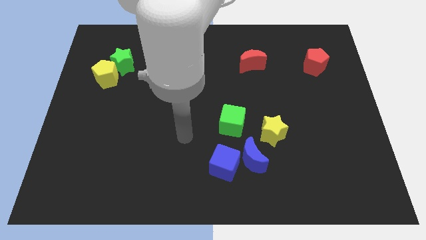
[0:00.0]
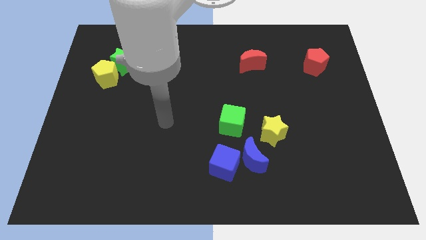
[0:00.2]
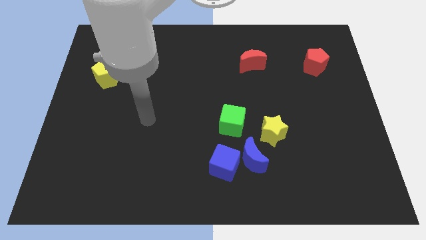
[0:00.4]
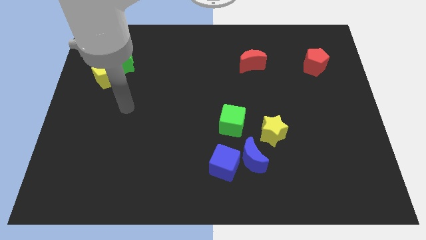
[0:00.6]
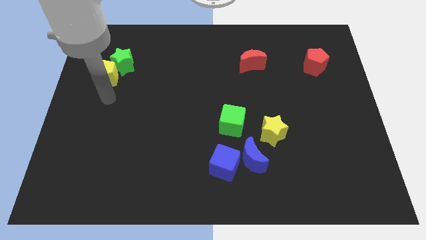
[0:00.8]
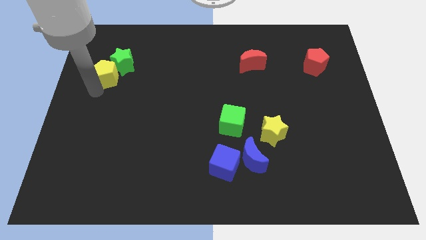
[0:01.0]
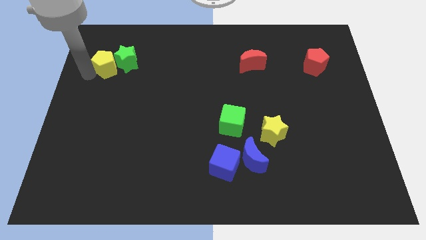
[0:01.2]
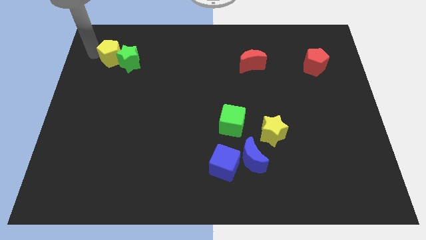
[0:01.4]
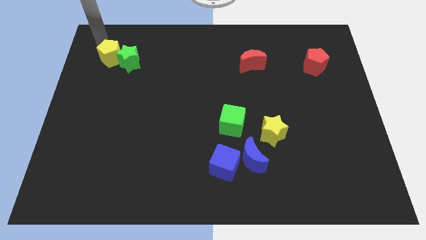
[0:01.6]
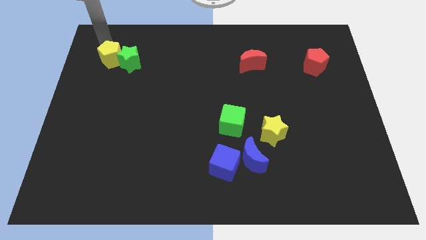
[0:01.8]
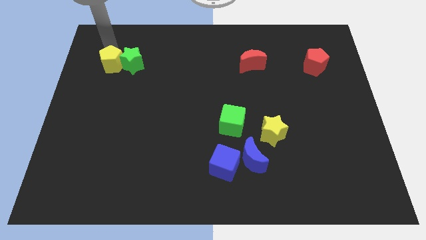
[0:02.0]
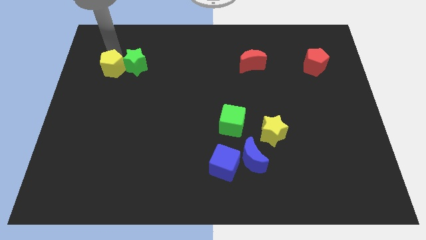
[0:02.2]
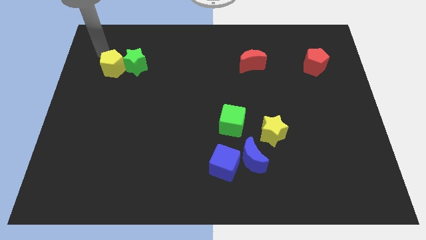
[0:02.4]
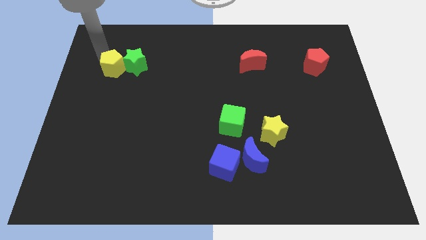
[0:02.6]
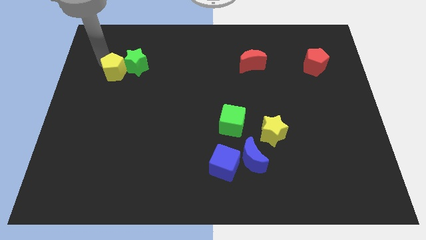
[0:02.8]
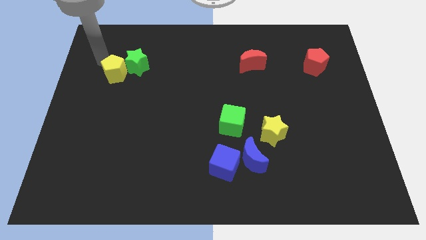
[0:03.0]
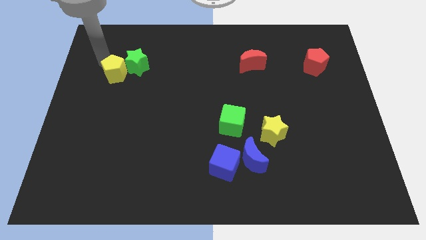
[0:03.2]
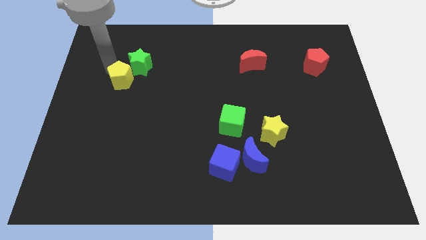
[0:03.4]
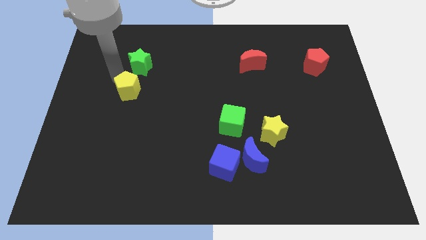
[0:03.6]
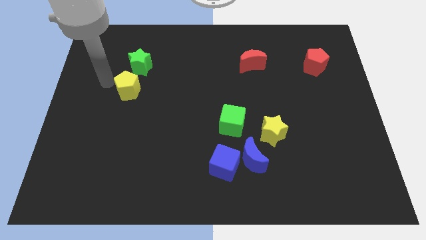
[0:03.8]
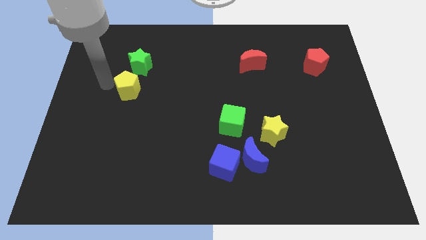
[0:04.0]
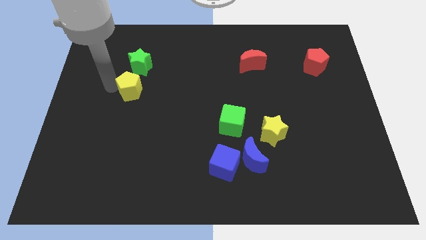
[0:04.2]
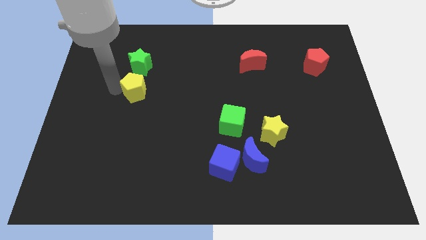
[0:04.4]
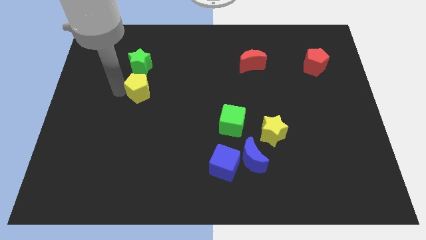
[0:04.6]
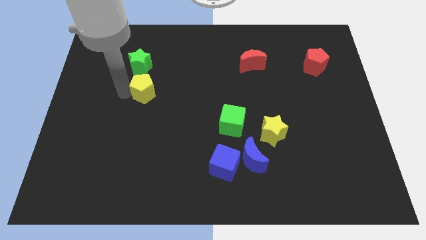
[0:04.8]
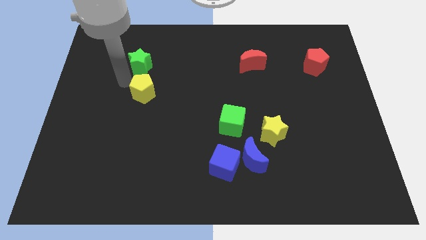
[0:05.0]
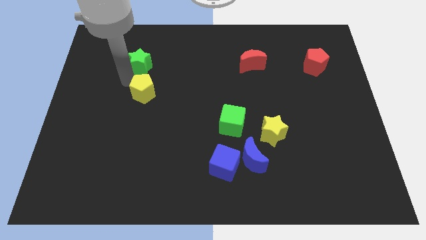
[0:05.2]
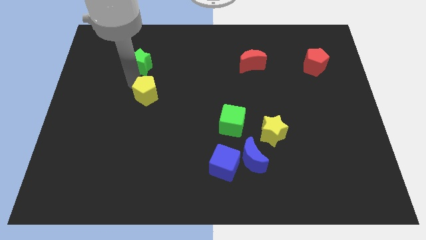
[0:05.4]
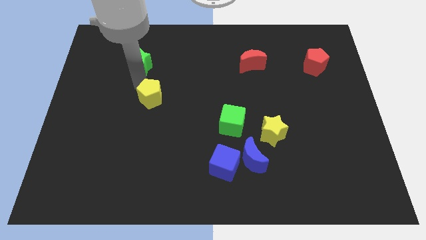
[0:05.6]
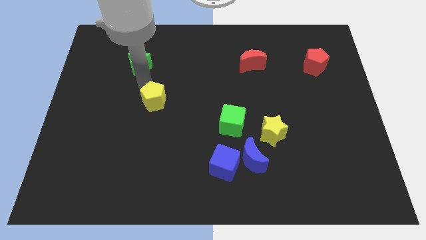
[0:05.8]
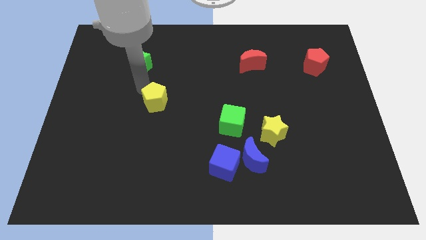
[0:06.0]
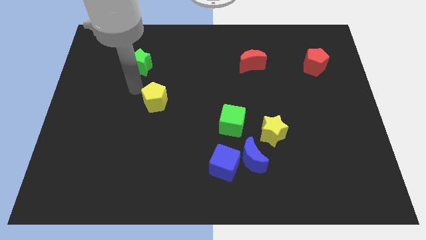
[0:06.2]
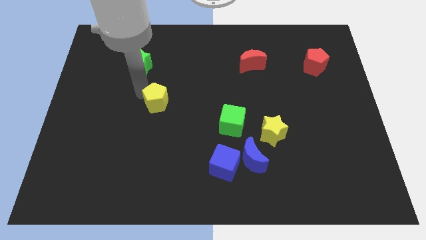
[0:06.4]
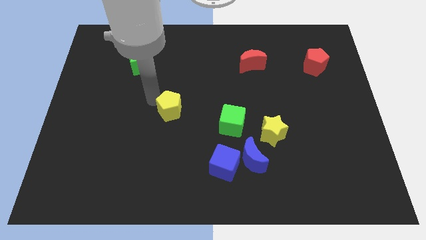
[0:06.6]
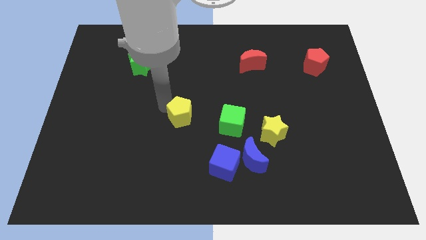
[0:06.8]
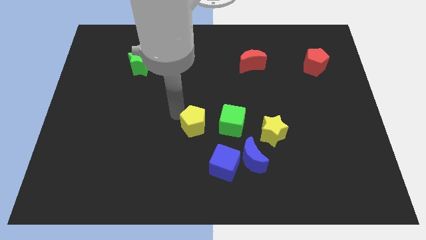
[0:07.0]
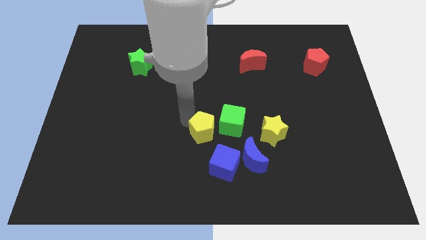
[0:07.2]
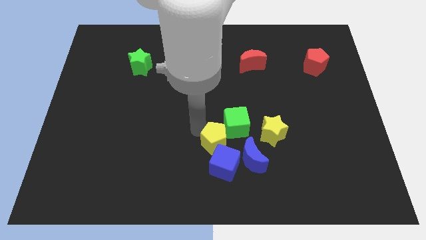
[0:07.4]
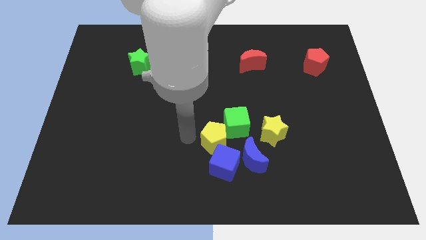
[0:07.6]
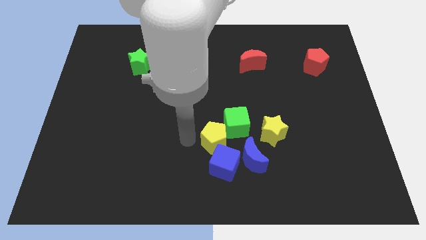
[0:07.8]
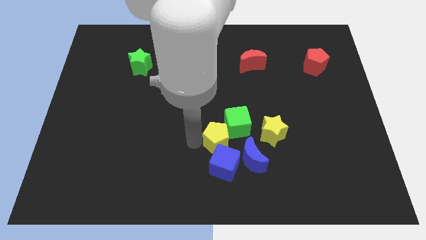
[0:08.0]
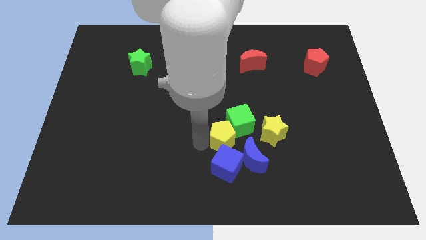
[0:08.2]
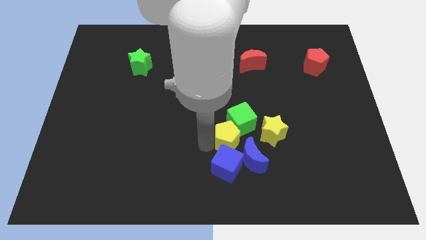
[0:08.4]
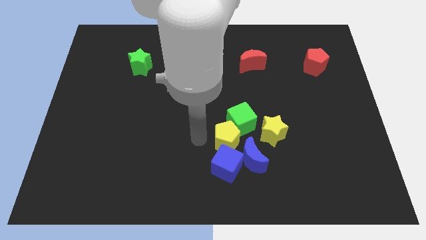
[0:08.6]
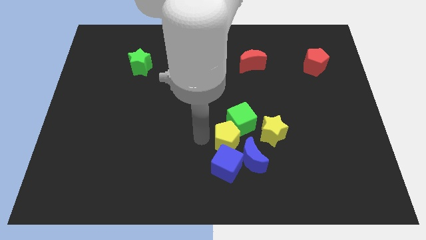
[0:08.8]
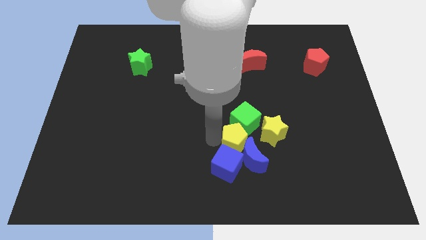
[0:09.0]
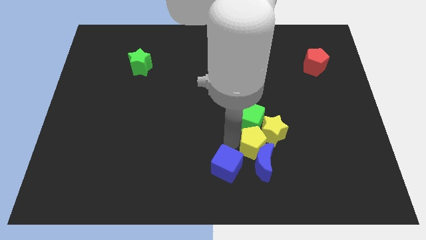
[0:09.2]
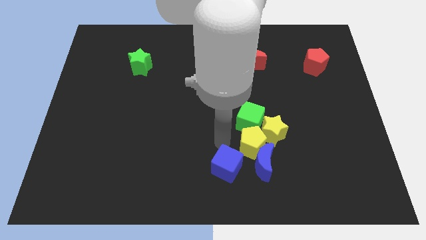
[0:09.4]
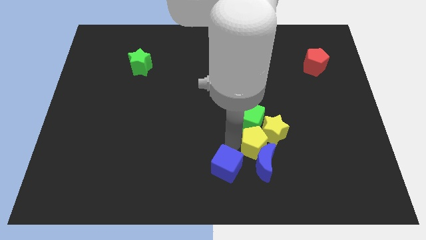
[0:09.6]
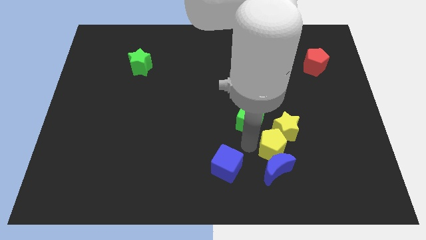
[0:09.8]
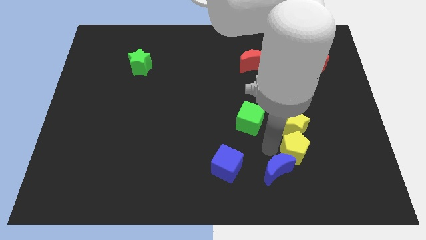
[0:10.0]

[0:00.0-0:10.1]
slide the yellow pentagon to the bottom right of the yellow star

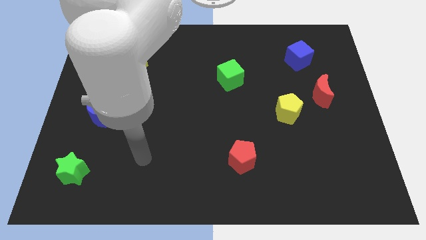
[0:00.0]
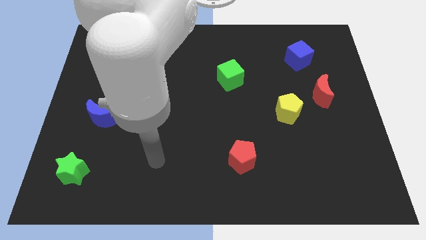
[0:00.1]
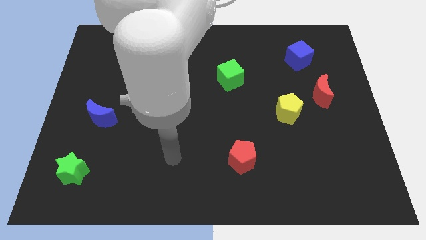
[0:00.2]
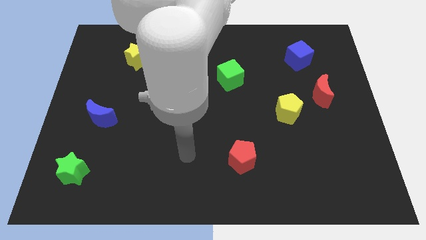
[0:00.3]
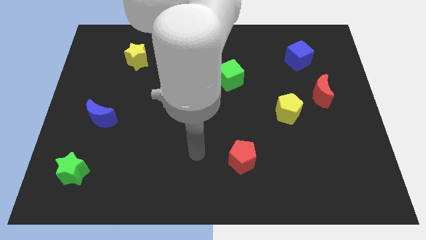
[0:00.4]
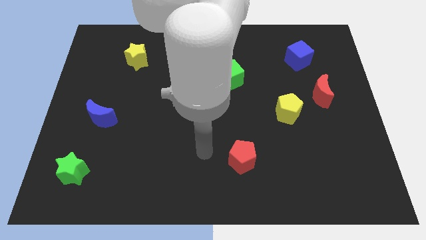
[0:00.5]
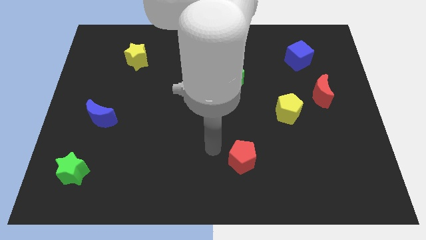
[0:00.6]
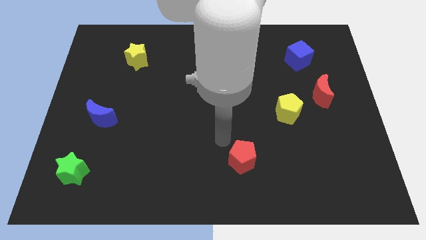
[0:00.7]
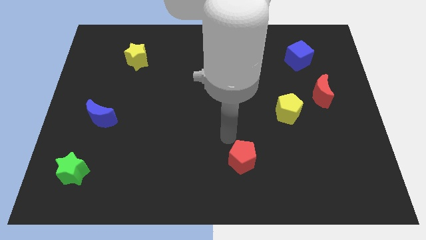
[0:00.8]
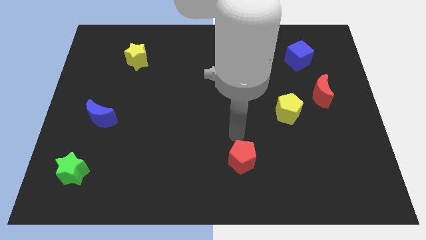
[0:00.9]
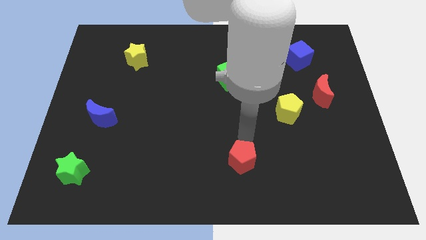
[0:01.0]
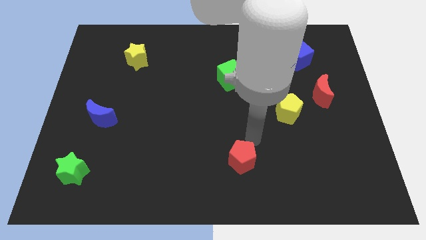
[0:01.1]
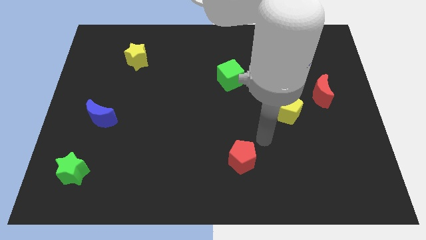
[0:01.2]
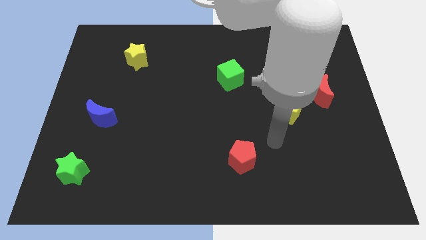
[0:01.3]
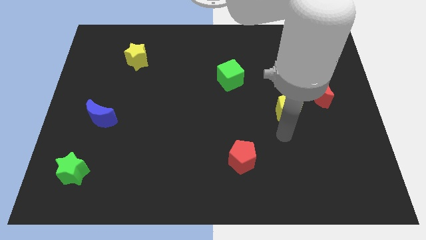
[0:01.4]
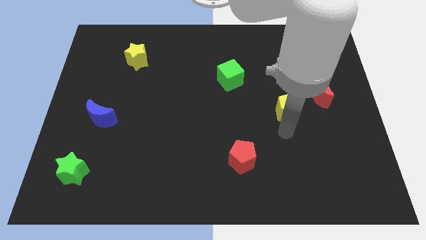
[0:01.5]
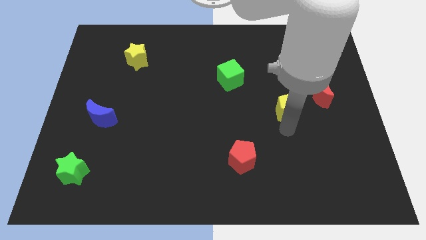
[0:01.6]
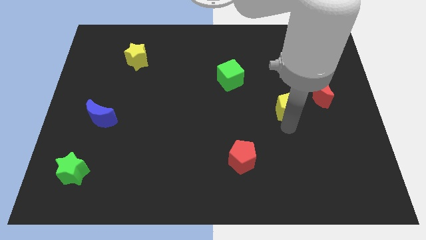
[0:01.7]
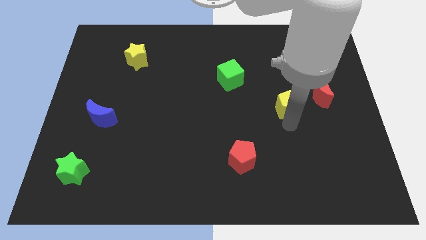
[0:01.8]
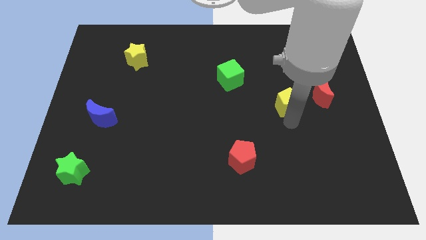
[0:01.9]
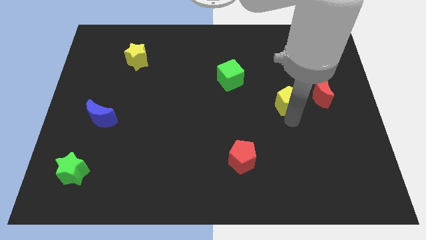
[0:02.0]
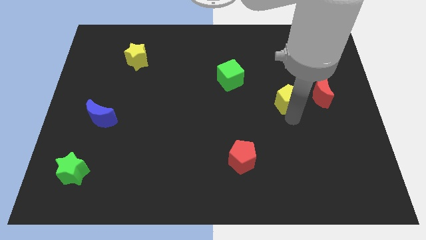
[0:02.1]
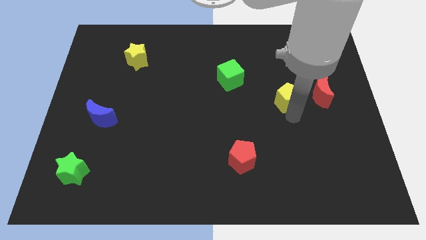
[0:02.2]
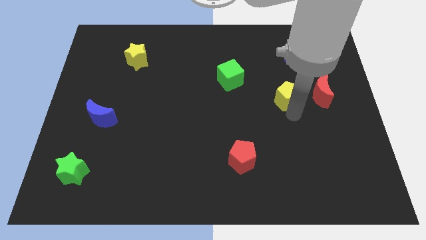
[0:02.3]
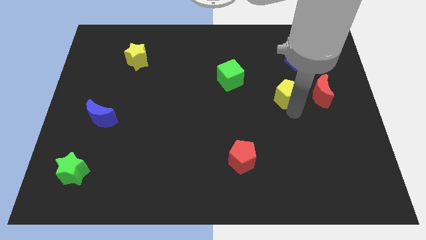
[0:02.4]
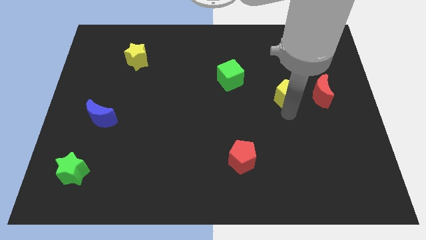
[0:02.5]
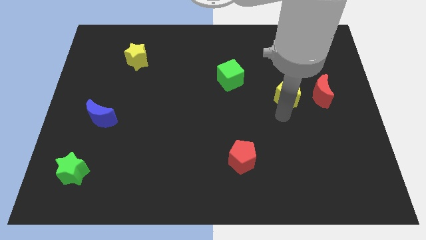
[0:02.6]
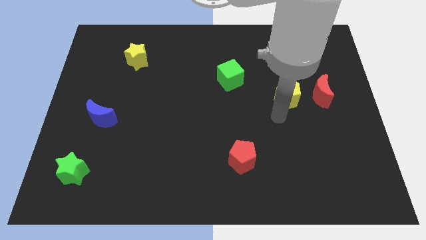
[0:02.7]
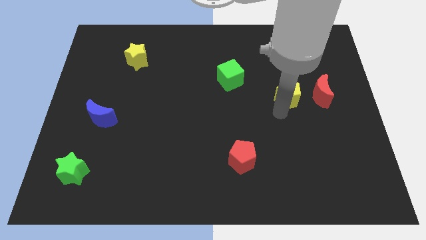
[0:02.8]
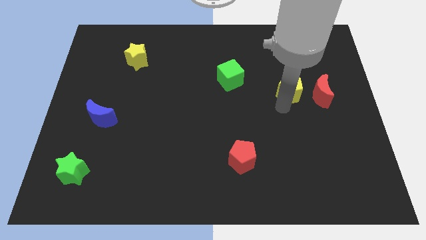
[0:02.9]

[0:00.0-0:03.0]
slide the yellow pentagon diagonally up and to the left of the red moon
